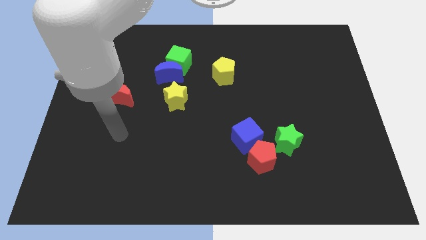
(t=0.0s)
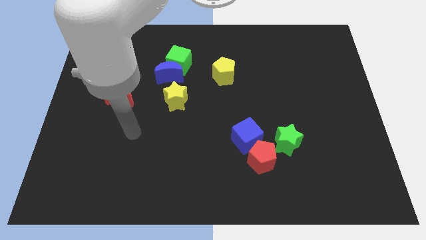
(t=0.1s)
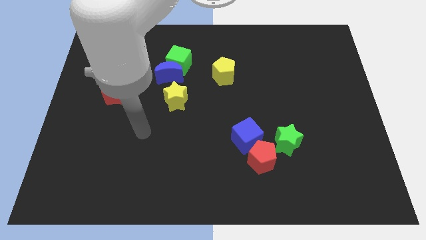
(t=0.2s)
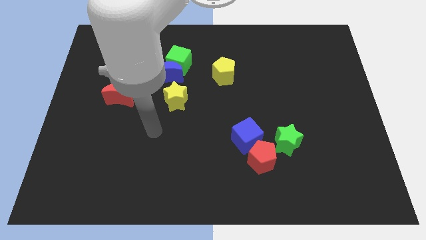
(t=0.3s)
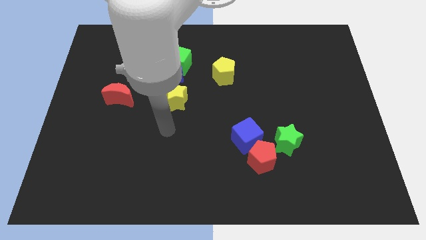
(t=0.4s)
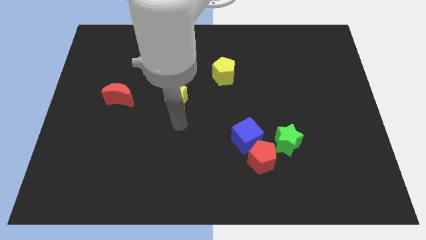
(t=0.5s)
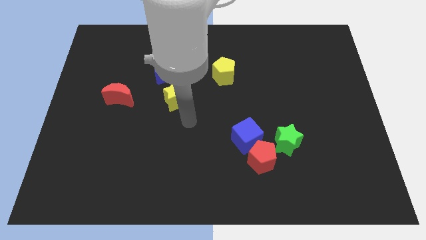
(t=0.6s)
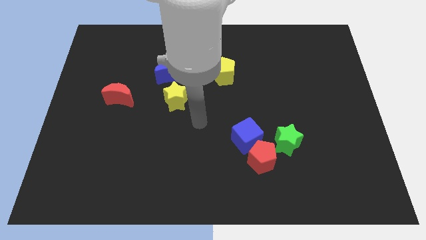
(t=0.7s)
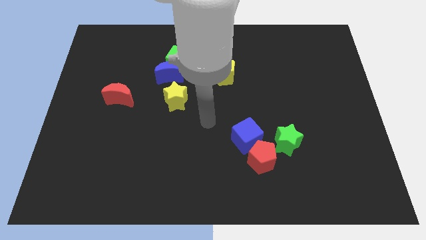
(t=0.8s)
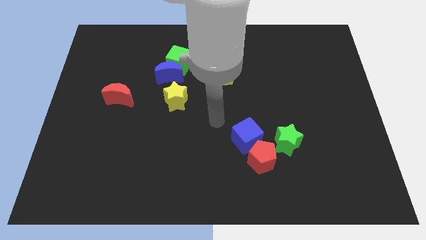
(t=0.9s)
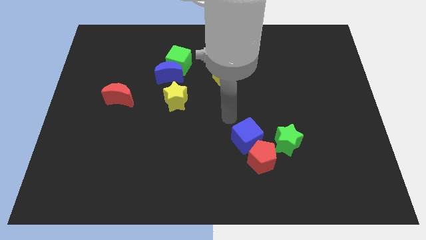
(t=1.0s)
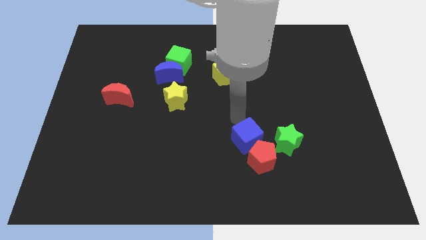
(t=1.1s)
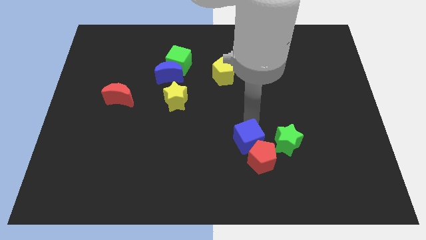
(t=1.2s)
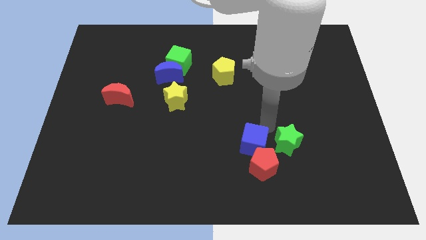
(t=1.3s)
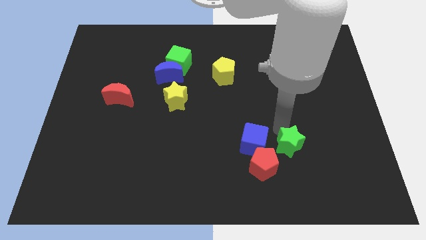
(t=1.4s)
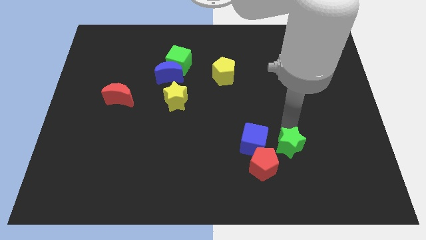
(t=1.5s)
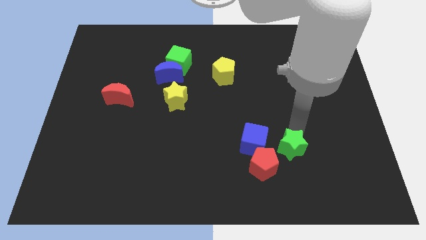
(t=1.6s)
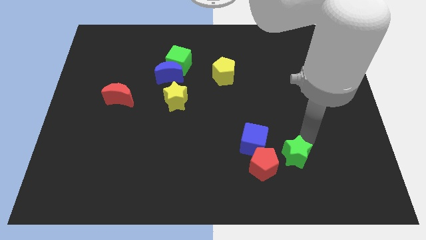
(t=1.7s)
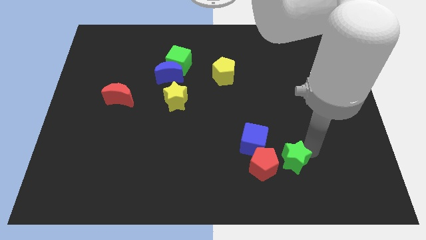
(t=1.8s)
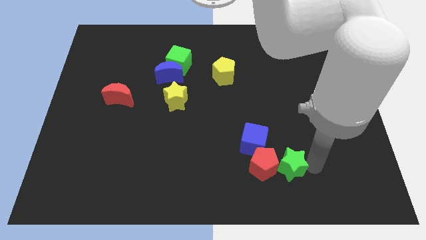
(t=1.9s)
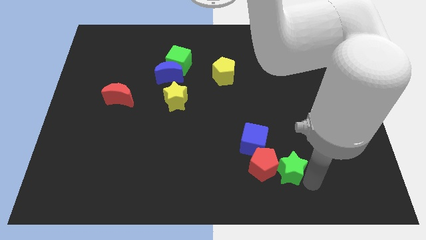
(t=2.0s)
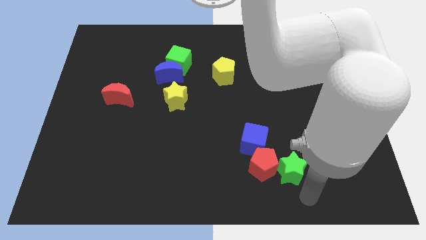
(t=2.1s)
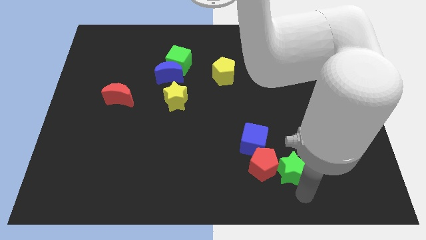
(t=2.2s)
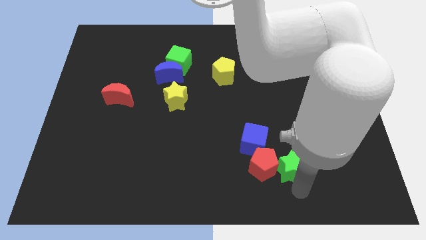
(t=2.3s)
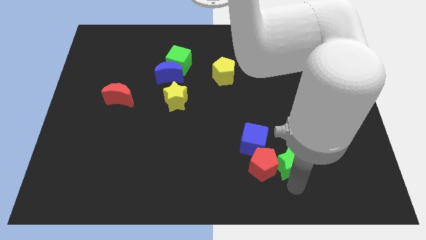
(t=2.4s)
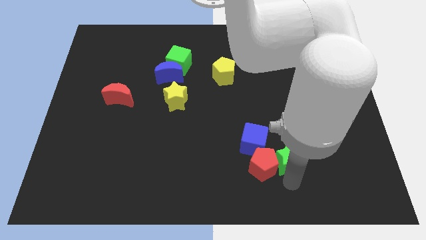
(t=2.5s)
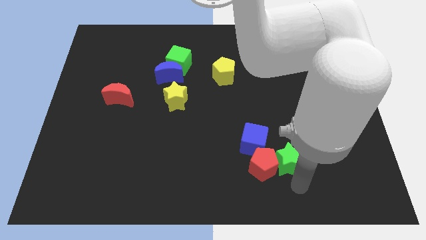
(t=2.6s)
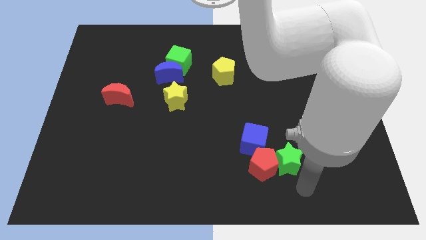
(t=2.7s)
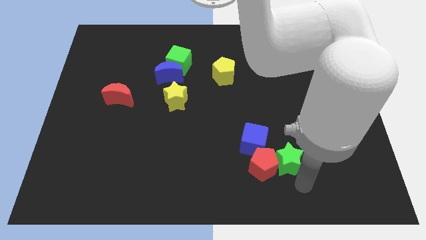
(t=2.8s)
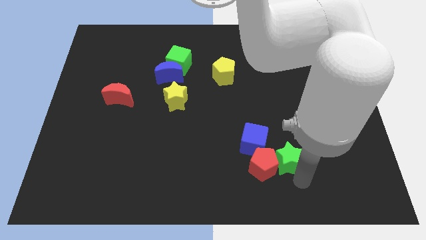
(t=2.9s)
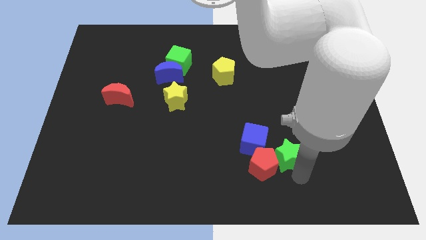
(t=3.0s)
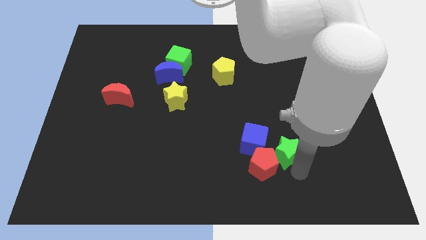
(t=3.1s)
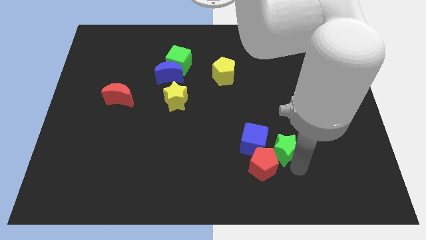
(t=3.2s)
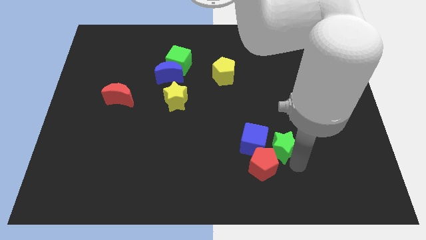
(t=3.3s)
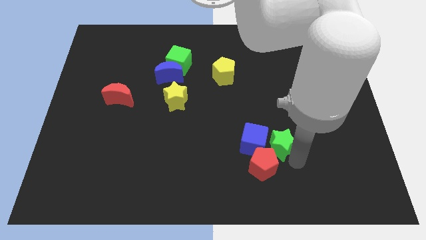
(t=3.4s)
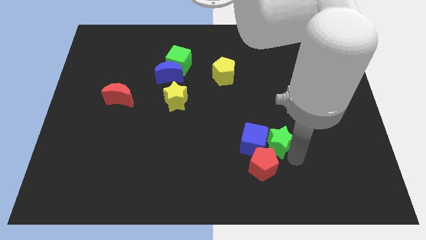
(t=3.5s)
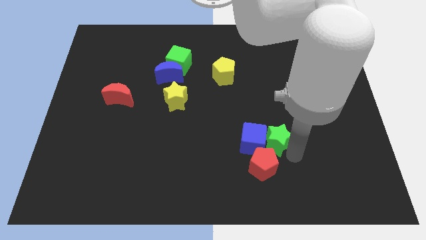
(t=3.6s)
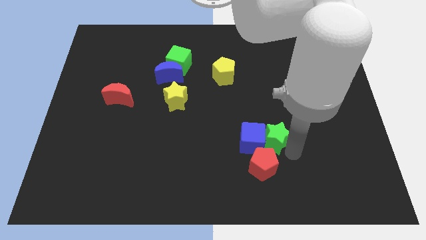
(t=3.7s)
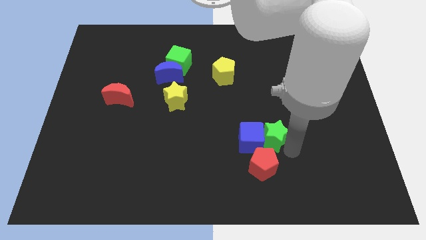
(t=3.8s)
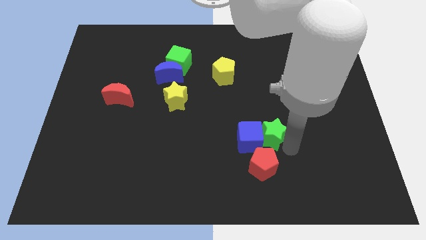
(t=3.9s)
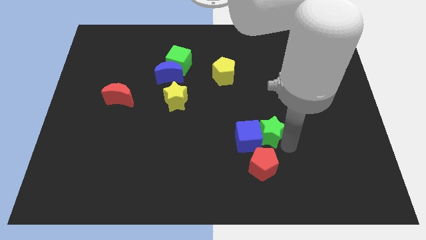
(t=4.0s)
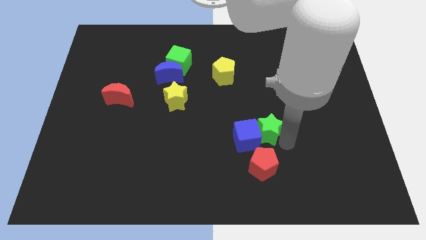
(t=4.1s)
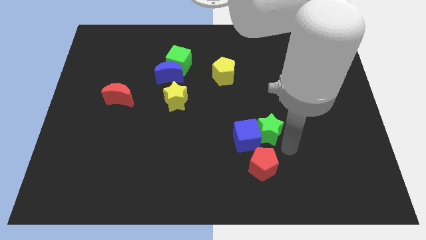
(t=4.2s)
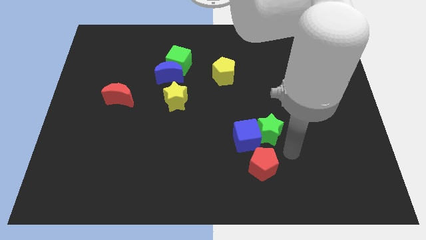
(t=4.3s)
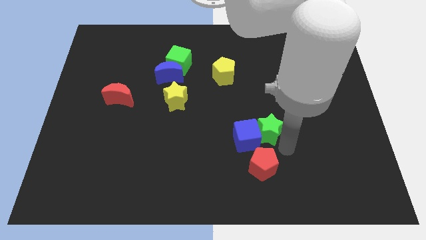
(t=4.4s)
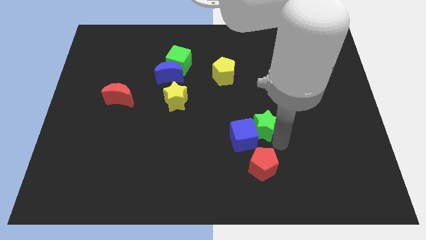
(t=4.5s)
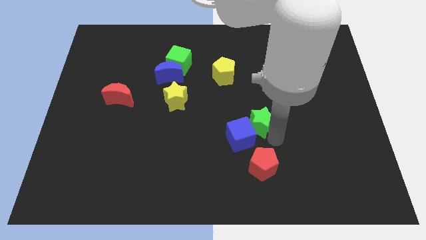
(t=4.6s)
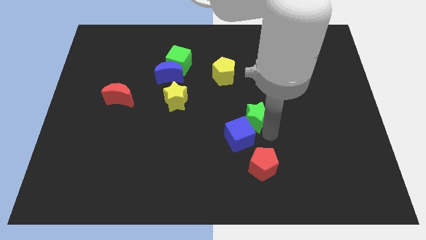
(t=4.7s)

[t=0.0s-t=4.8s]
push the green star to the center of the board

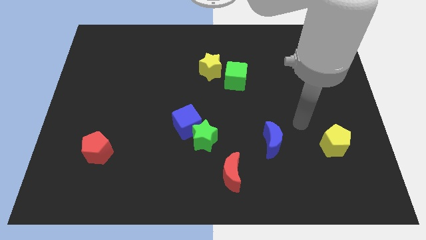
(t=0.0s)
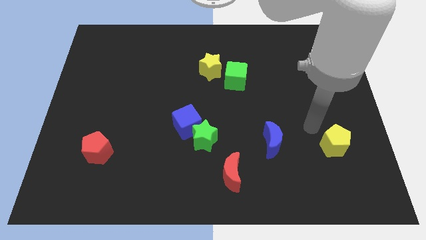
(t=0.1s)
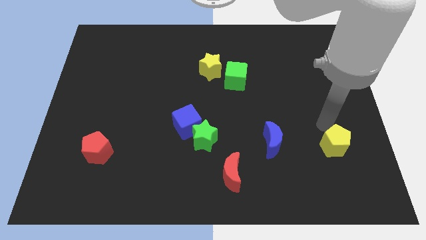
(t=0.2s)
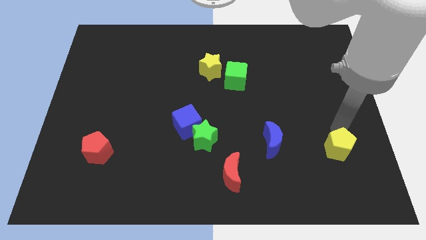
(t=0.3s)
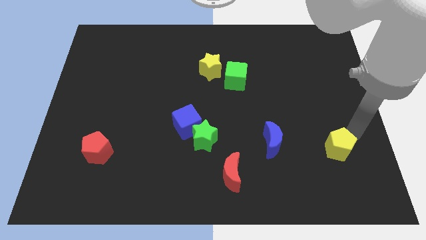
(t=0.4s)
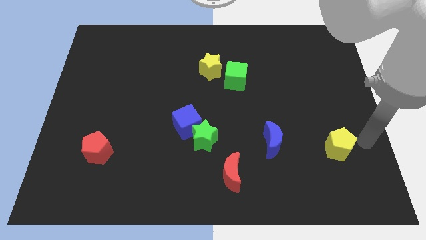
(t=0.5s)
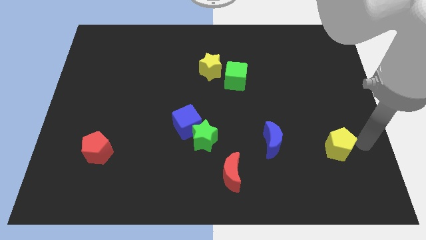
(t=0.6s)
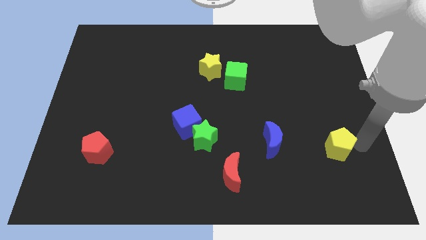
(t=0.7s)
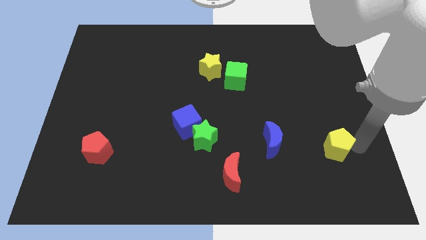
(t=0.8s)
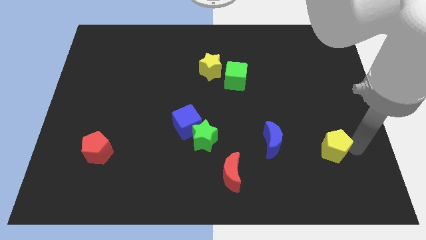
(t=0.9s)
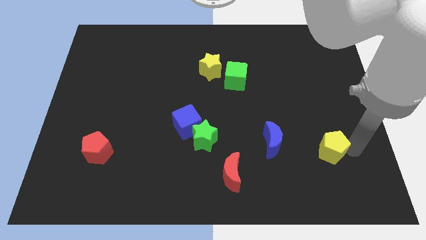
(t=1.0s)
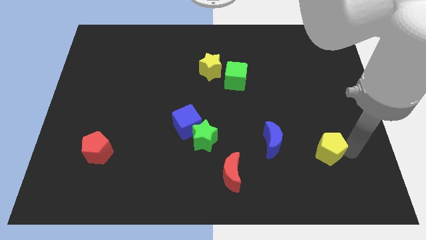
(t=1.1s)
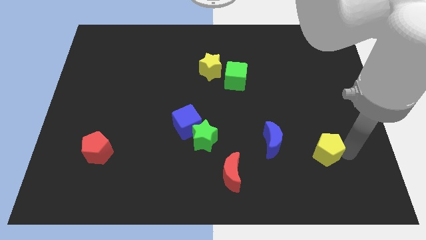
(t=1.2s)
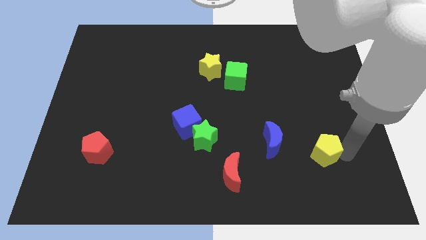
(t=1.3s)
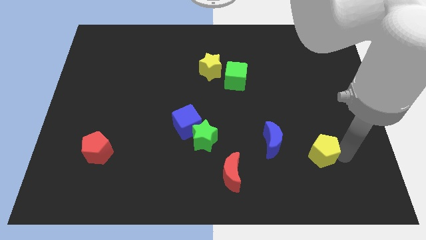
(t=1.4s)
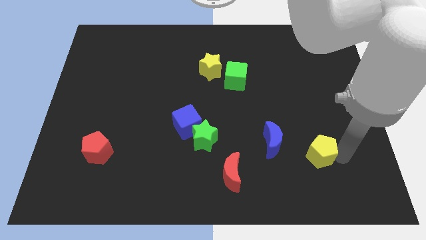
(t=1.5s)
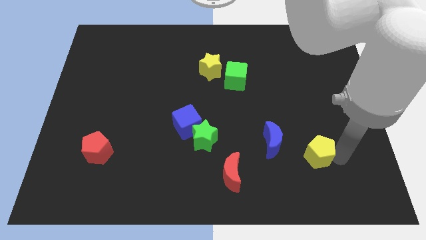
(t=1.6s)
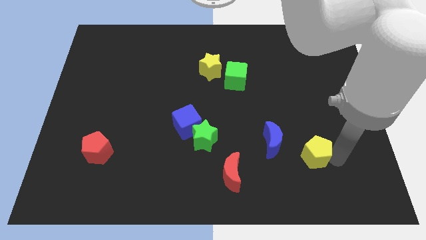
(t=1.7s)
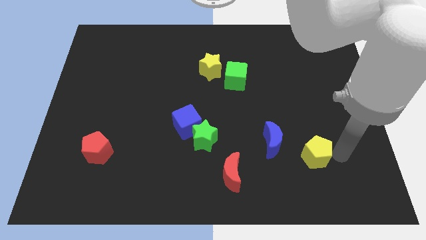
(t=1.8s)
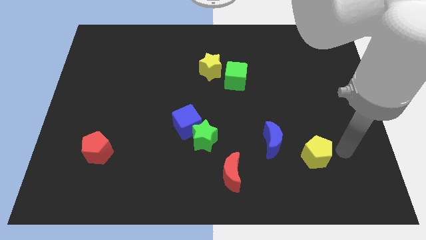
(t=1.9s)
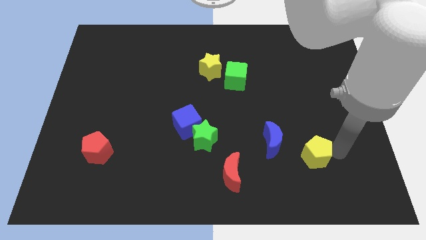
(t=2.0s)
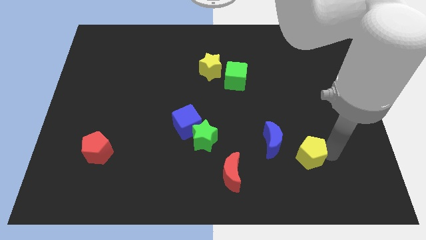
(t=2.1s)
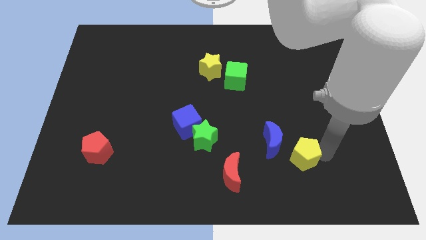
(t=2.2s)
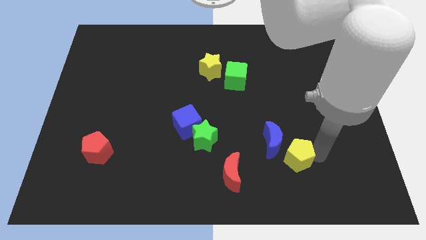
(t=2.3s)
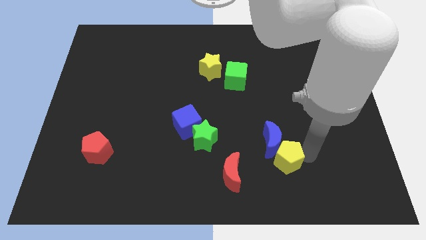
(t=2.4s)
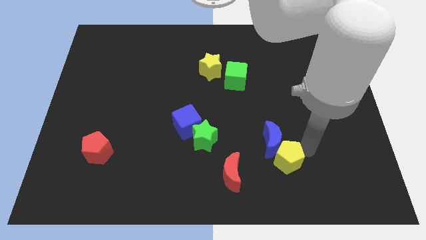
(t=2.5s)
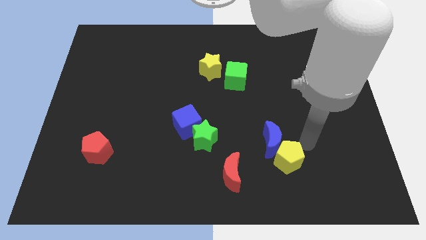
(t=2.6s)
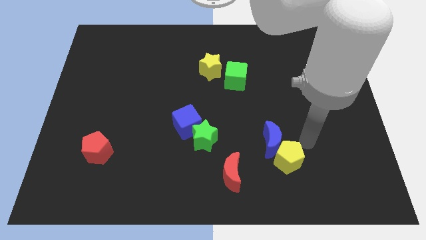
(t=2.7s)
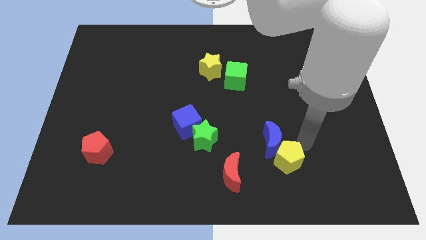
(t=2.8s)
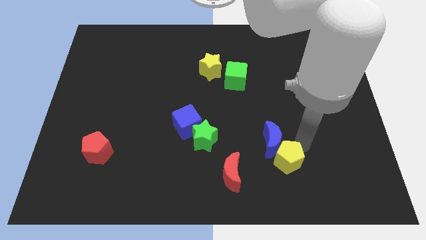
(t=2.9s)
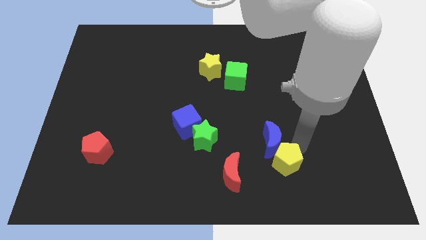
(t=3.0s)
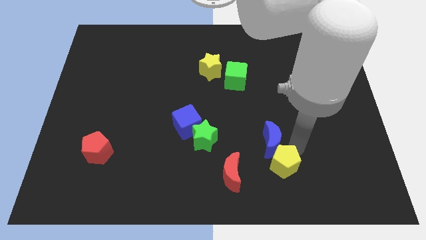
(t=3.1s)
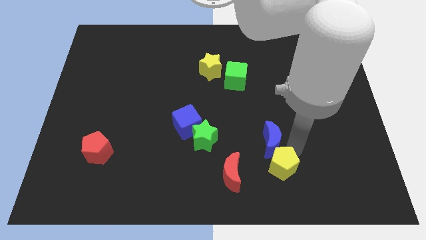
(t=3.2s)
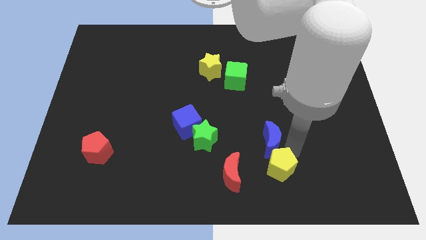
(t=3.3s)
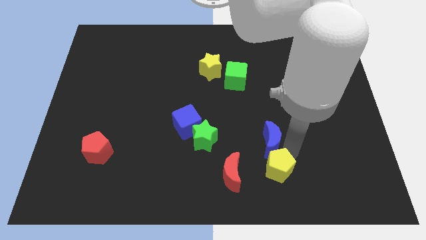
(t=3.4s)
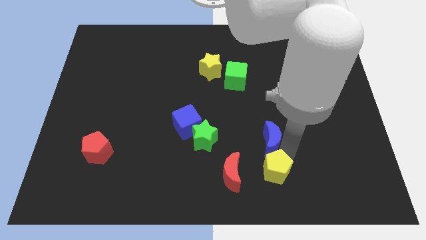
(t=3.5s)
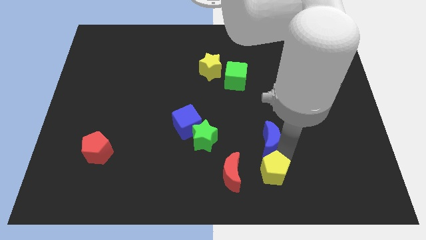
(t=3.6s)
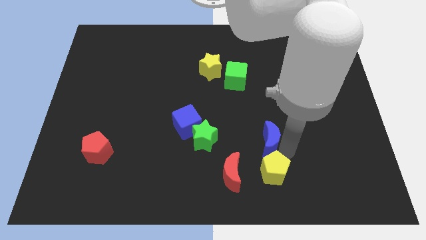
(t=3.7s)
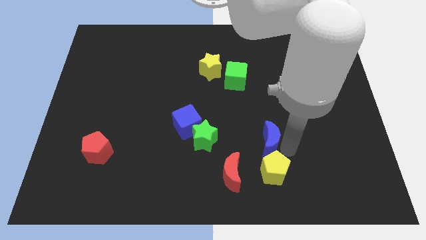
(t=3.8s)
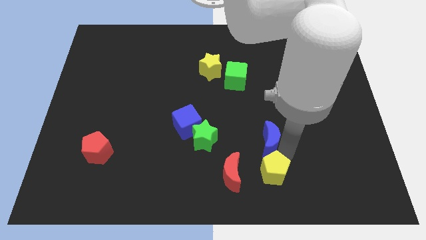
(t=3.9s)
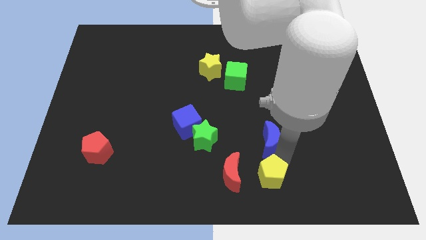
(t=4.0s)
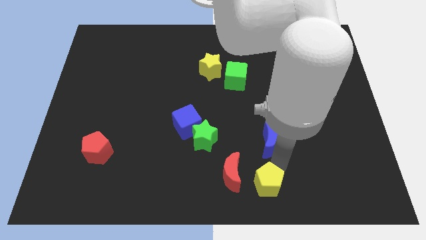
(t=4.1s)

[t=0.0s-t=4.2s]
move the yellow pentagon to the bottom
